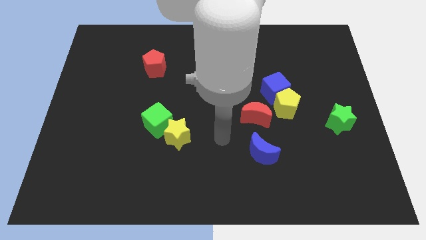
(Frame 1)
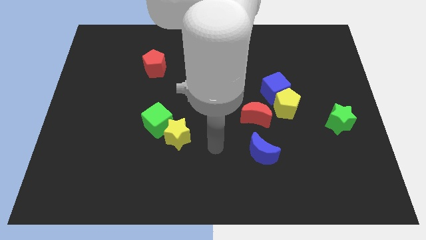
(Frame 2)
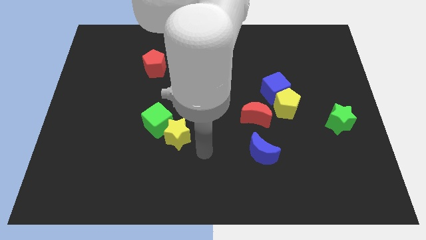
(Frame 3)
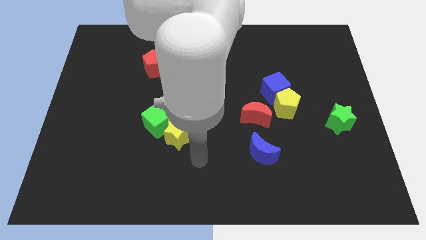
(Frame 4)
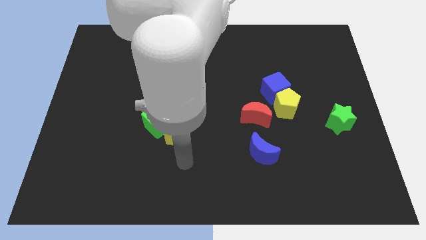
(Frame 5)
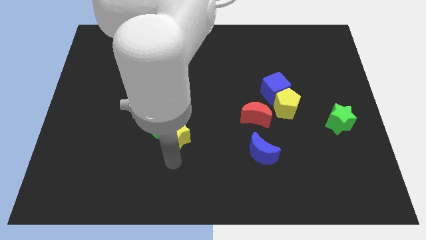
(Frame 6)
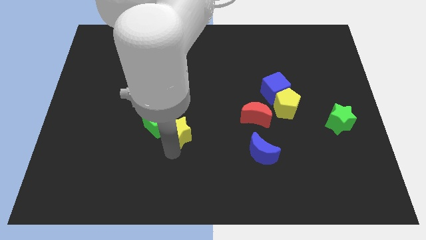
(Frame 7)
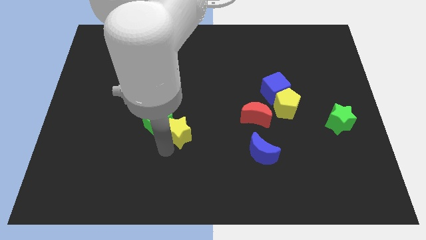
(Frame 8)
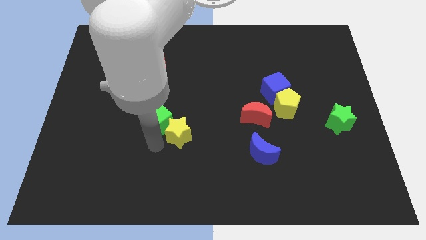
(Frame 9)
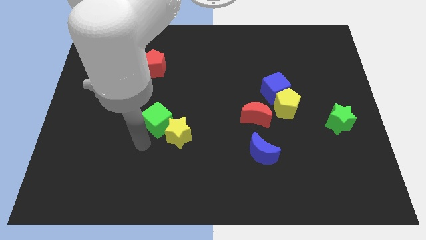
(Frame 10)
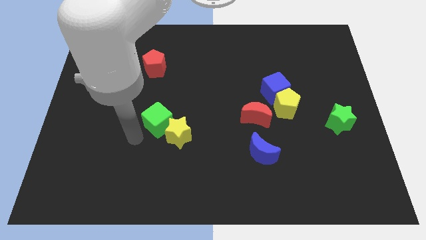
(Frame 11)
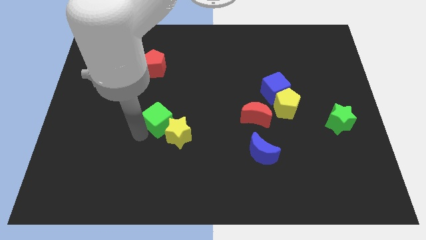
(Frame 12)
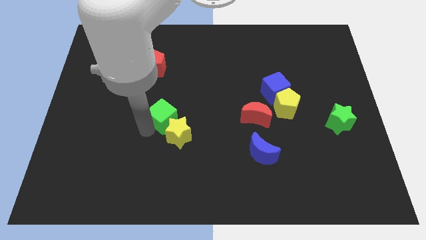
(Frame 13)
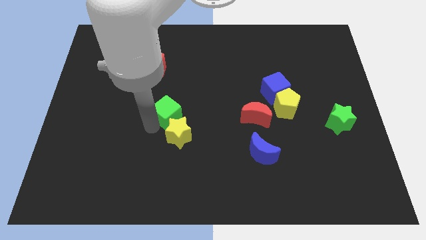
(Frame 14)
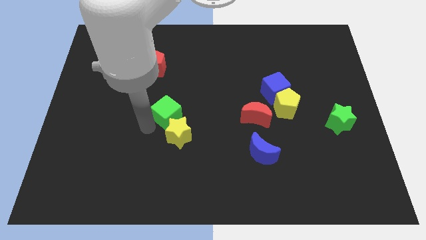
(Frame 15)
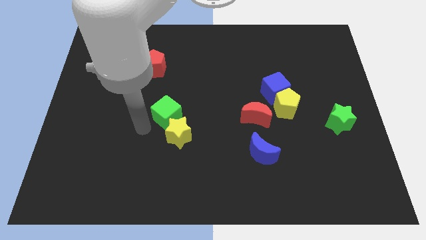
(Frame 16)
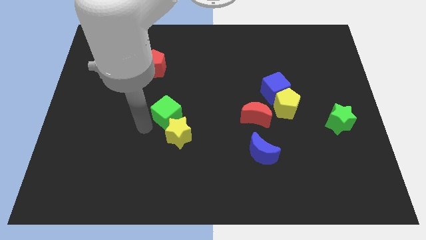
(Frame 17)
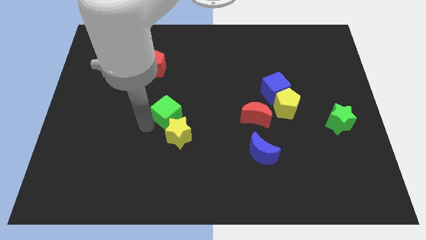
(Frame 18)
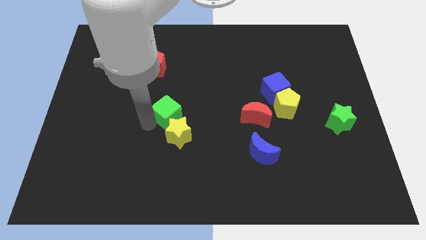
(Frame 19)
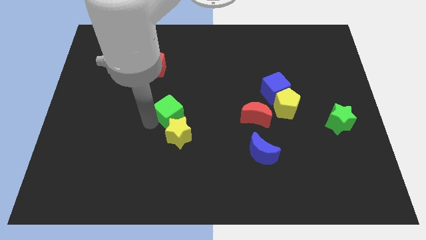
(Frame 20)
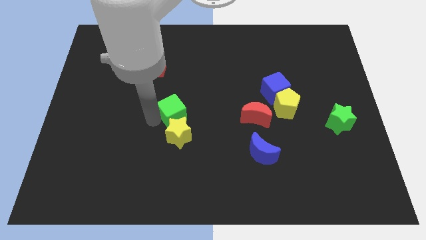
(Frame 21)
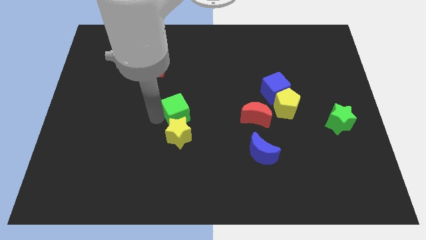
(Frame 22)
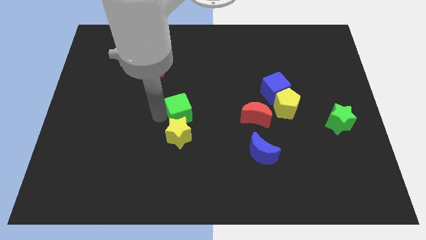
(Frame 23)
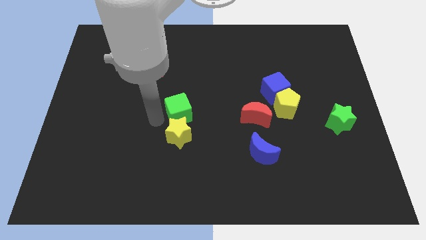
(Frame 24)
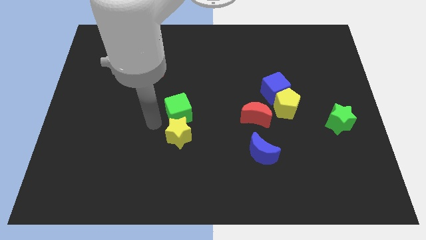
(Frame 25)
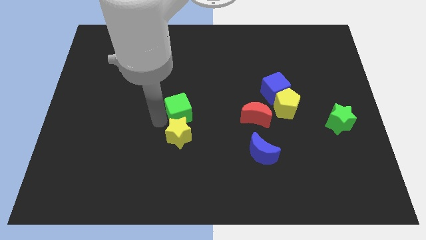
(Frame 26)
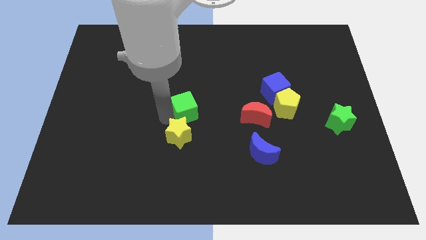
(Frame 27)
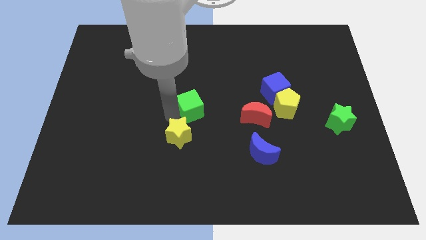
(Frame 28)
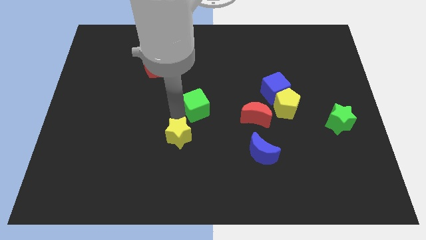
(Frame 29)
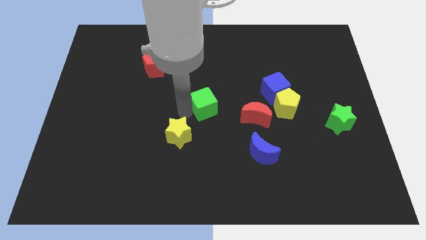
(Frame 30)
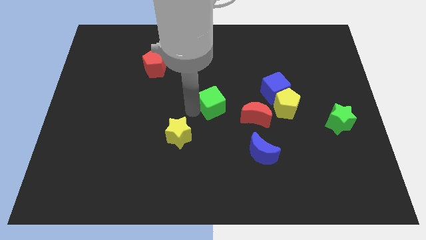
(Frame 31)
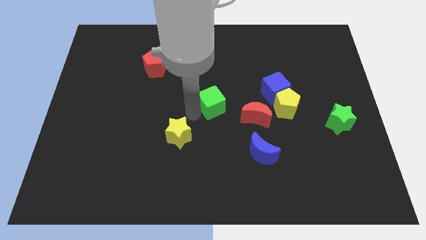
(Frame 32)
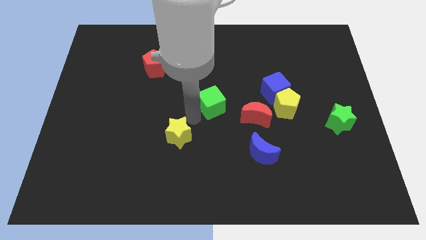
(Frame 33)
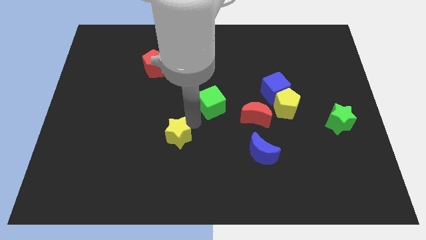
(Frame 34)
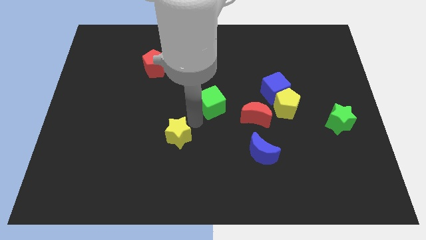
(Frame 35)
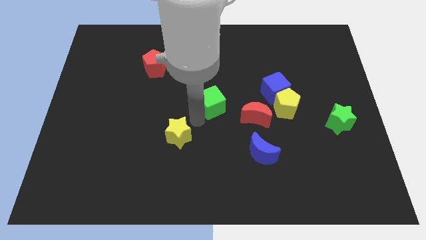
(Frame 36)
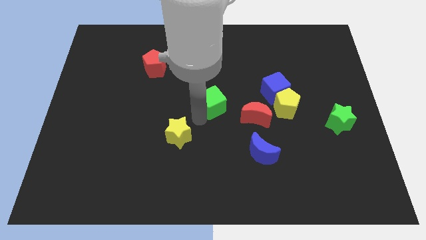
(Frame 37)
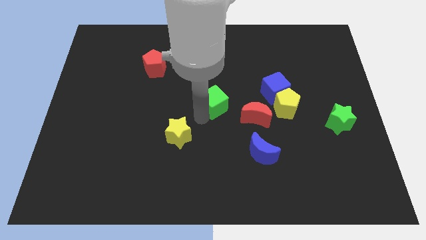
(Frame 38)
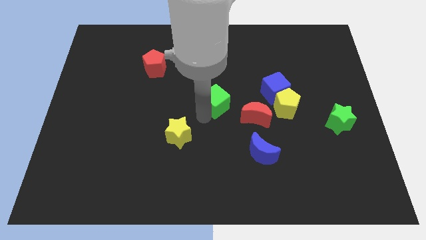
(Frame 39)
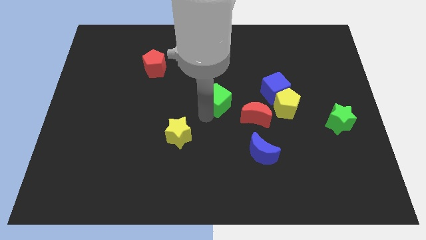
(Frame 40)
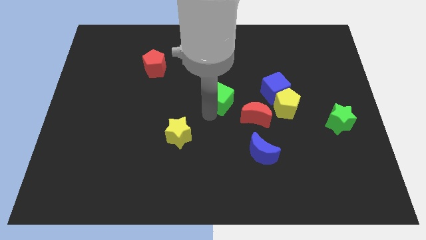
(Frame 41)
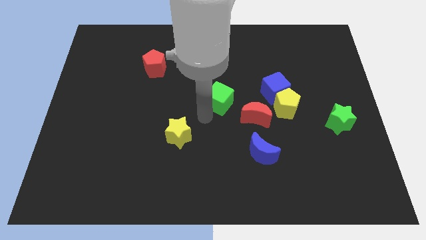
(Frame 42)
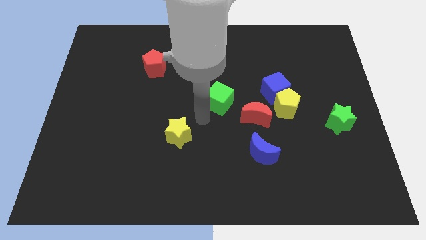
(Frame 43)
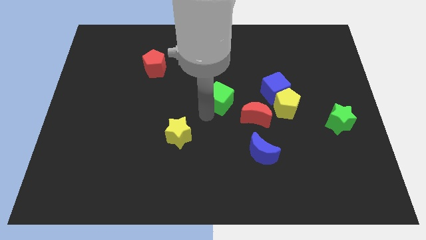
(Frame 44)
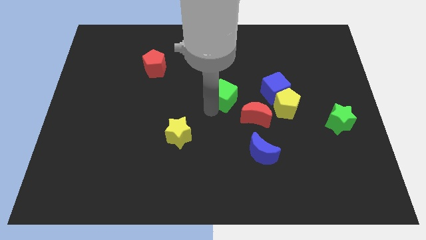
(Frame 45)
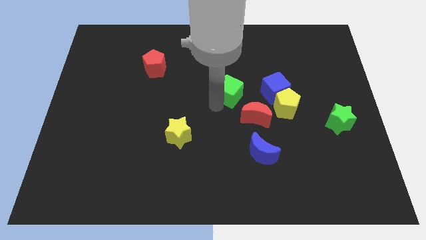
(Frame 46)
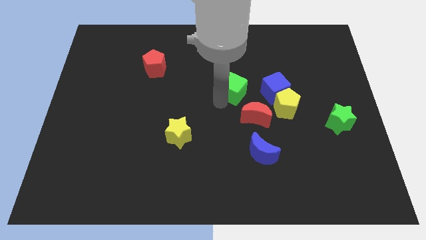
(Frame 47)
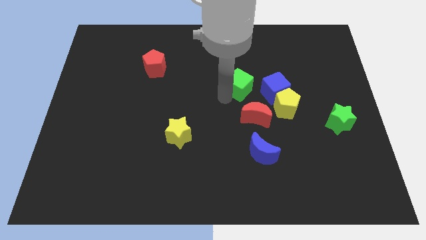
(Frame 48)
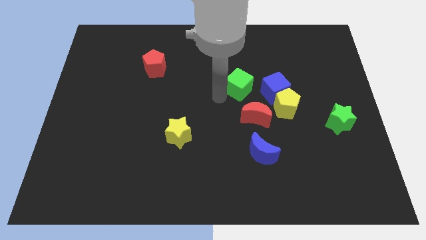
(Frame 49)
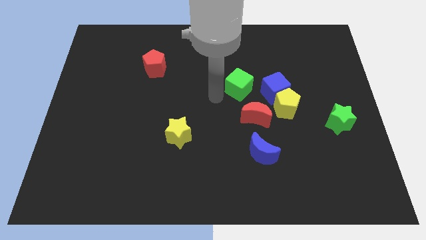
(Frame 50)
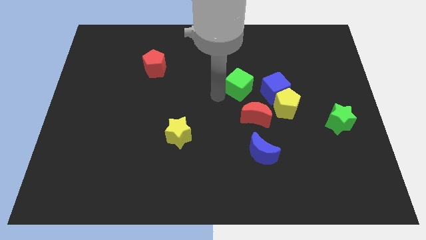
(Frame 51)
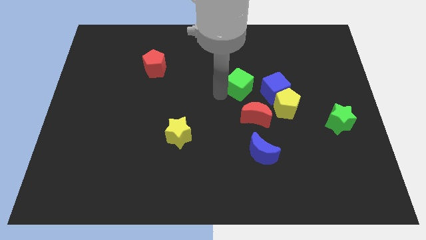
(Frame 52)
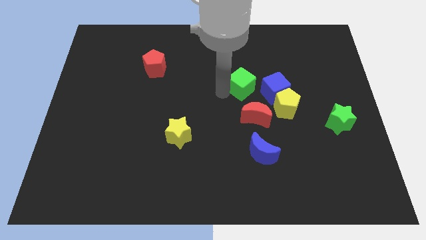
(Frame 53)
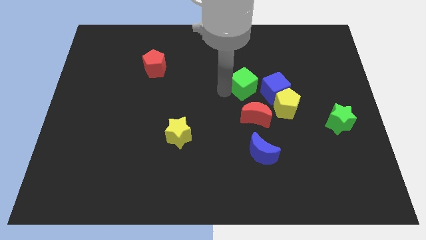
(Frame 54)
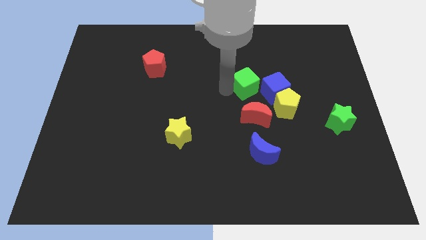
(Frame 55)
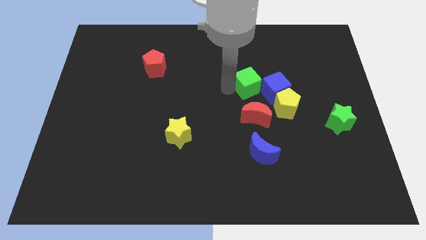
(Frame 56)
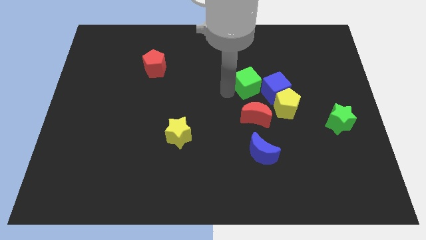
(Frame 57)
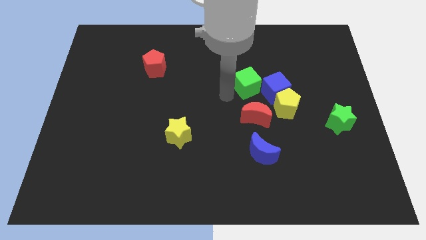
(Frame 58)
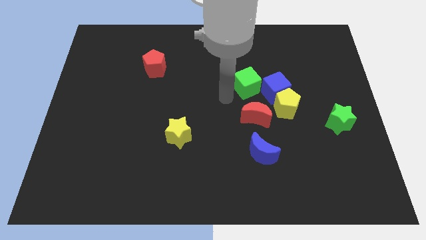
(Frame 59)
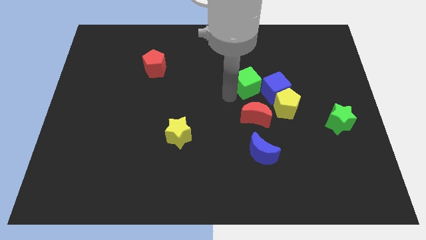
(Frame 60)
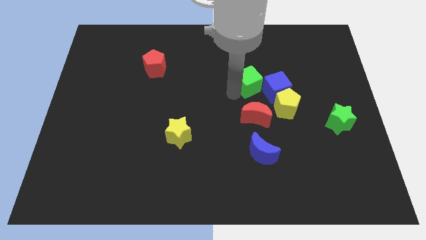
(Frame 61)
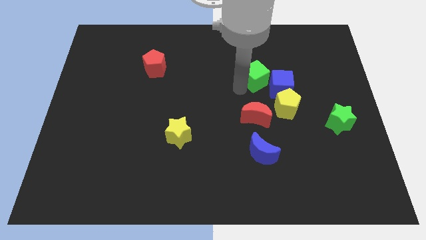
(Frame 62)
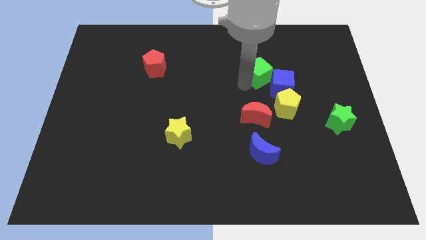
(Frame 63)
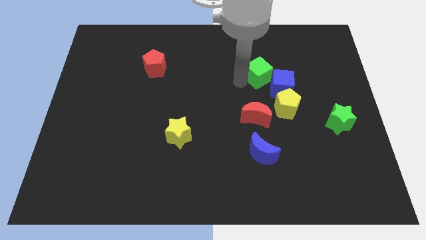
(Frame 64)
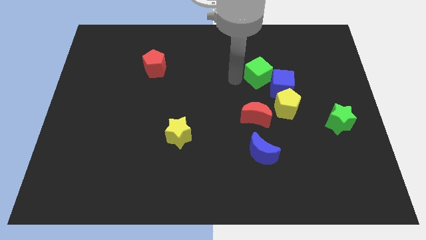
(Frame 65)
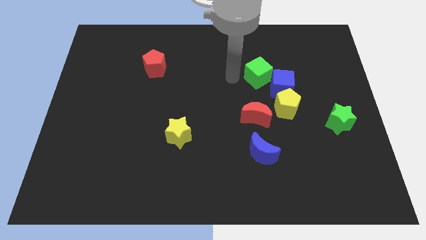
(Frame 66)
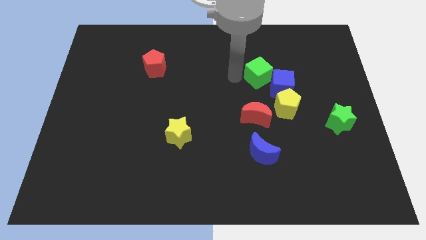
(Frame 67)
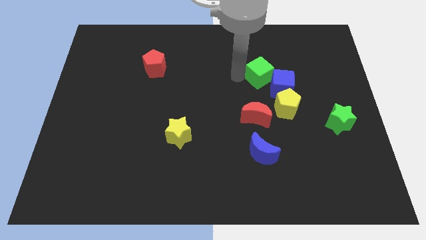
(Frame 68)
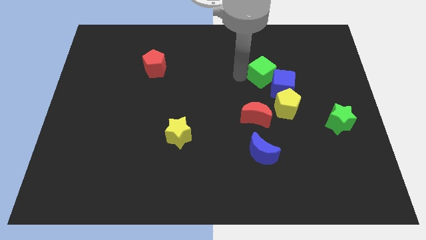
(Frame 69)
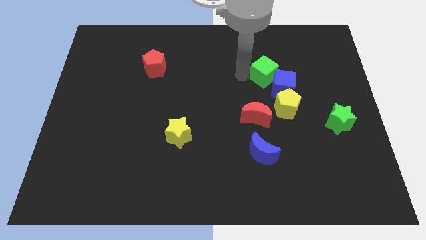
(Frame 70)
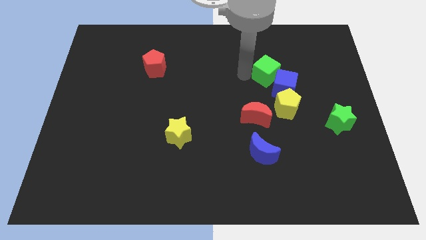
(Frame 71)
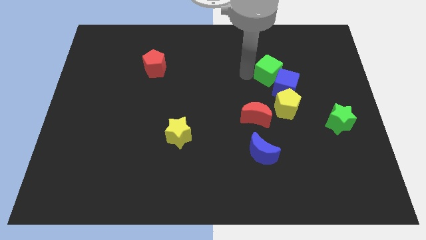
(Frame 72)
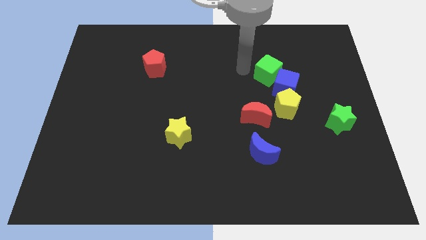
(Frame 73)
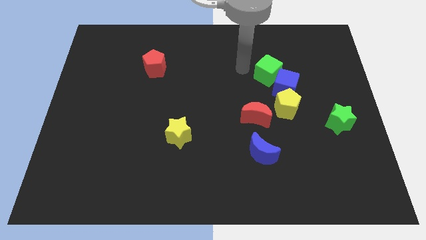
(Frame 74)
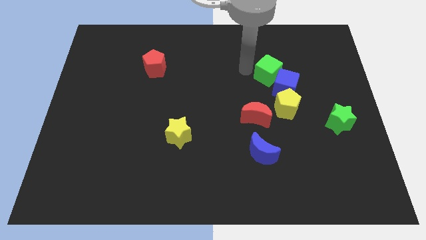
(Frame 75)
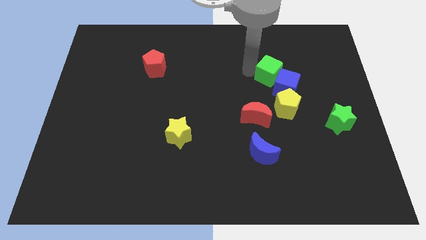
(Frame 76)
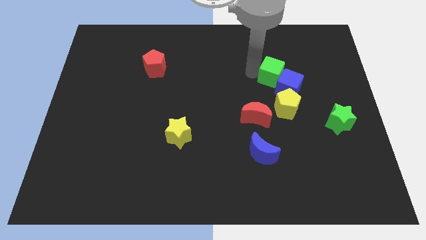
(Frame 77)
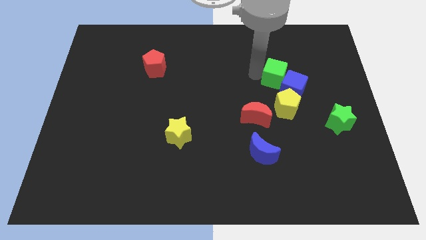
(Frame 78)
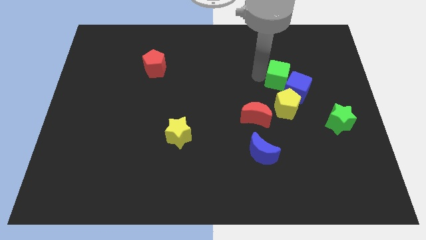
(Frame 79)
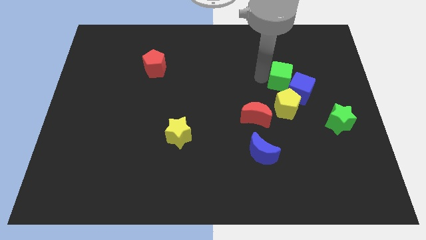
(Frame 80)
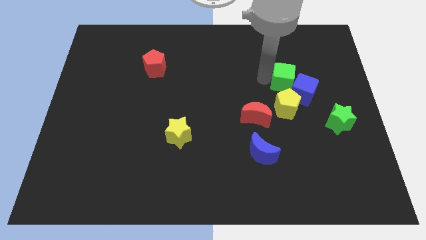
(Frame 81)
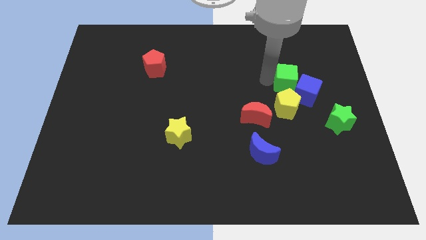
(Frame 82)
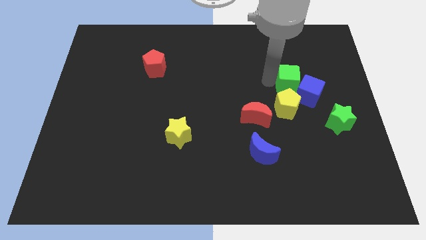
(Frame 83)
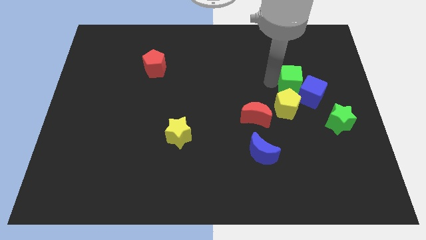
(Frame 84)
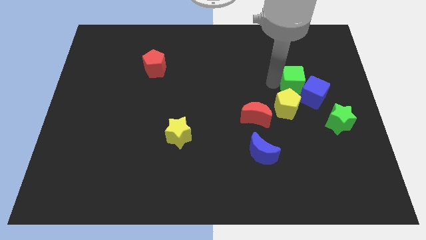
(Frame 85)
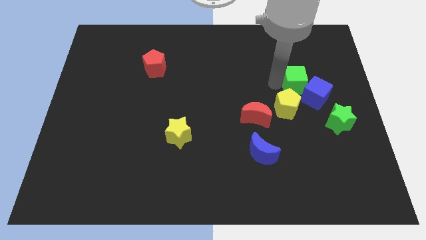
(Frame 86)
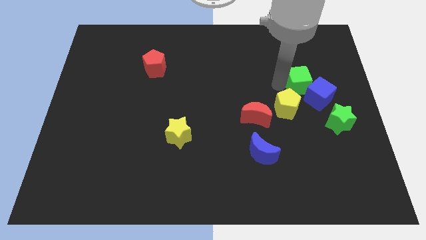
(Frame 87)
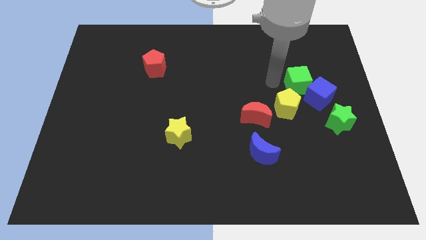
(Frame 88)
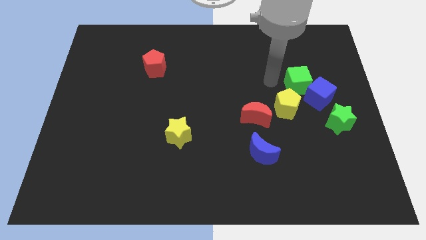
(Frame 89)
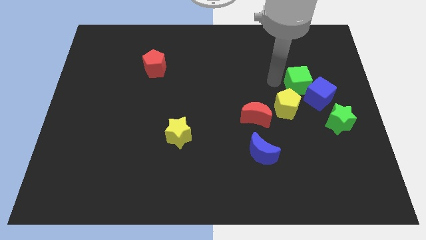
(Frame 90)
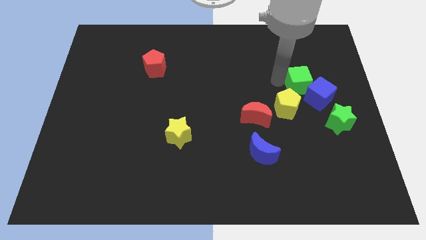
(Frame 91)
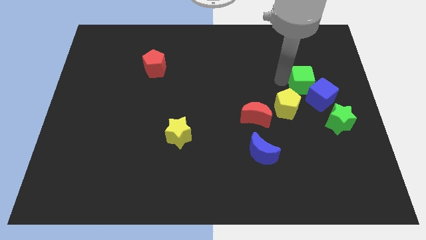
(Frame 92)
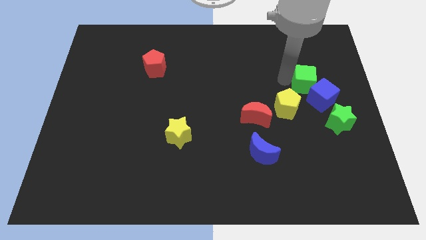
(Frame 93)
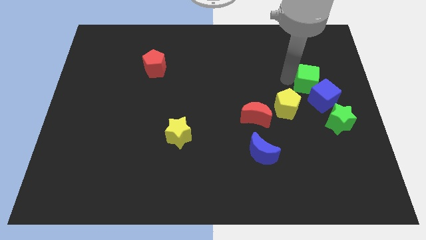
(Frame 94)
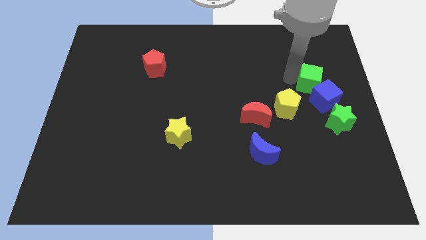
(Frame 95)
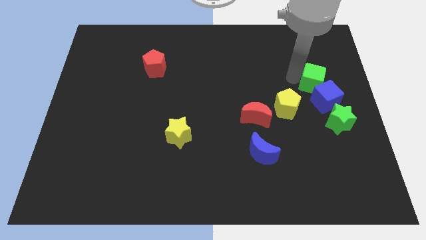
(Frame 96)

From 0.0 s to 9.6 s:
push the green cube above the green star
